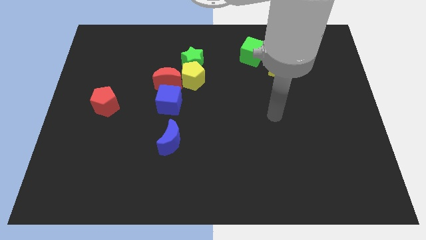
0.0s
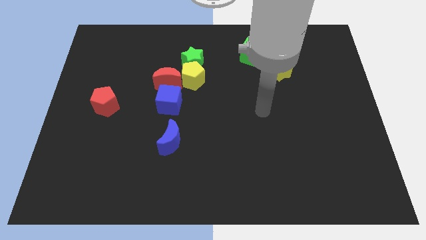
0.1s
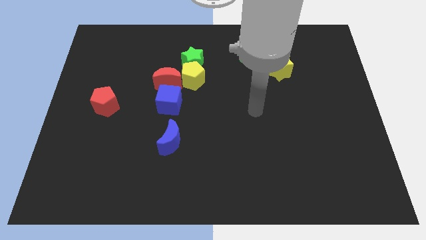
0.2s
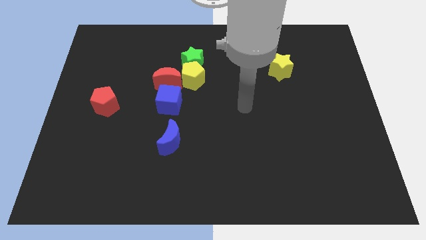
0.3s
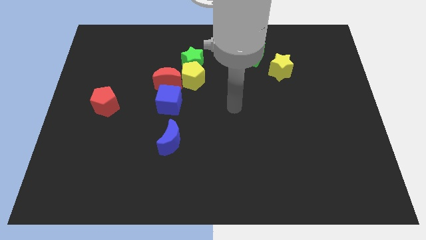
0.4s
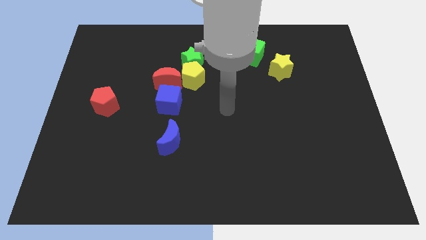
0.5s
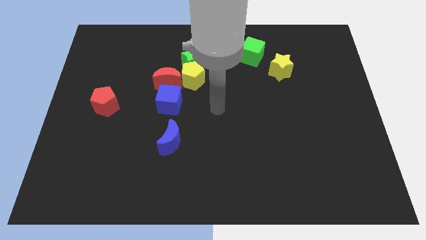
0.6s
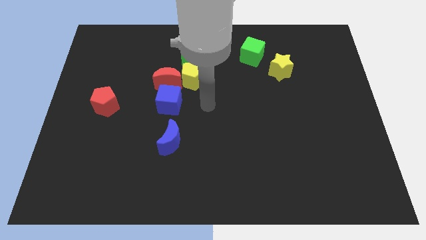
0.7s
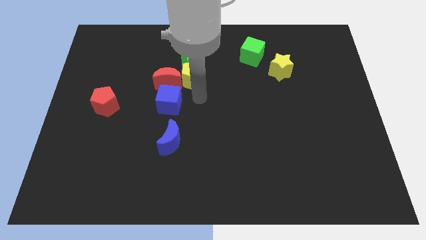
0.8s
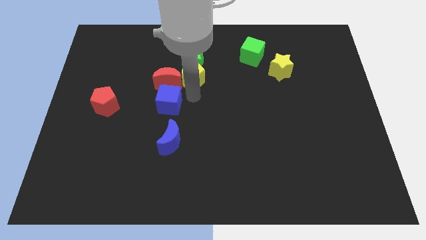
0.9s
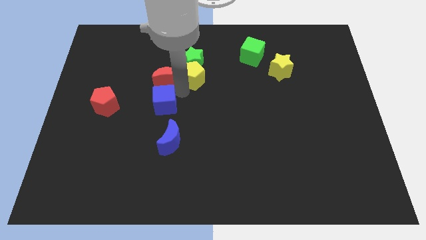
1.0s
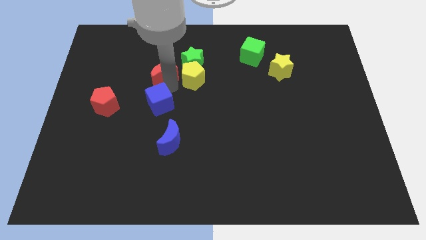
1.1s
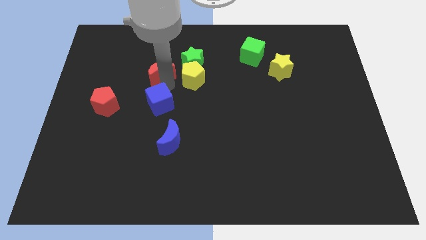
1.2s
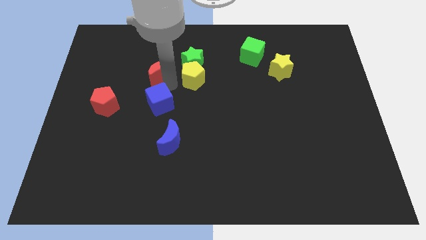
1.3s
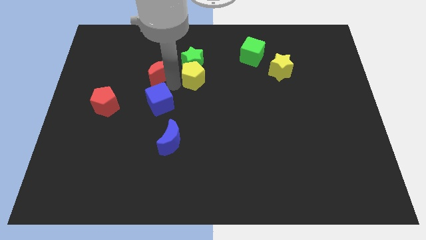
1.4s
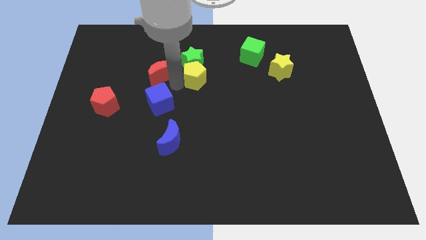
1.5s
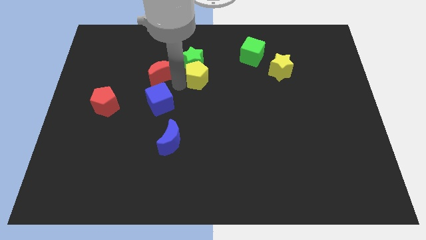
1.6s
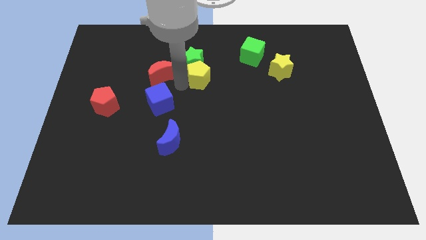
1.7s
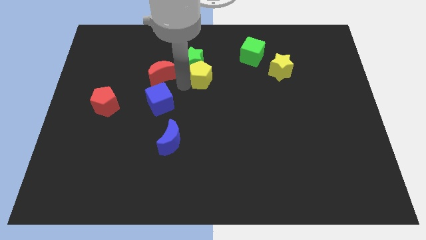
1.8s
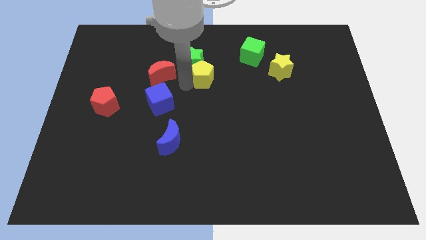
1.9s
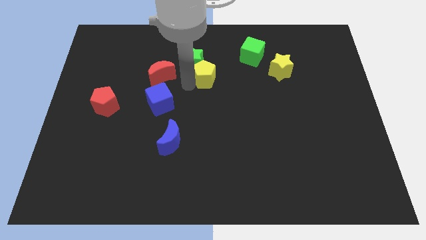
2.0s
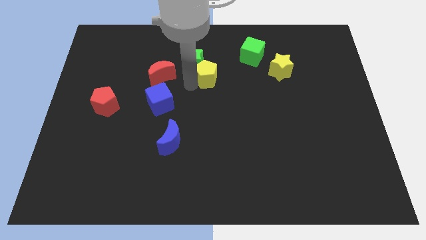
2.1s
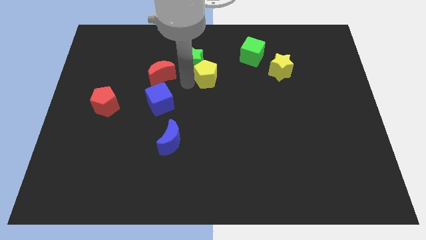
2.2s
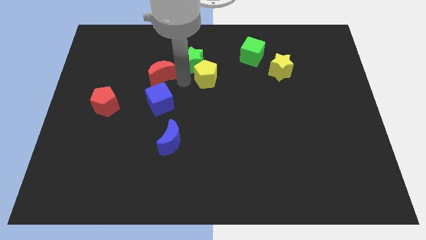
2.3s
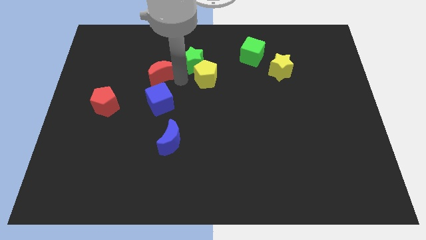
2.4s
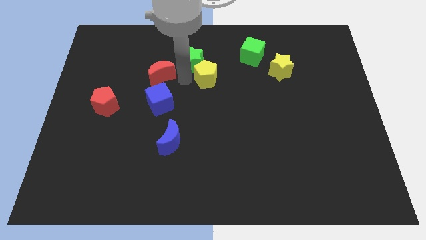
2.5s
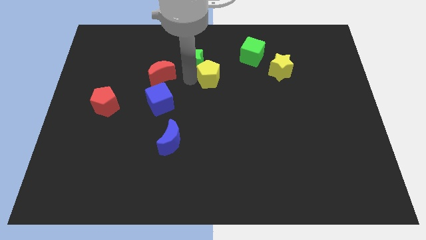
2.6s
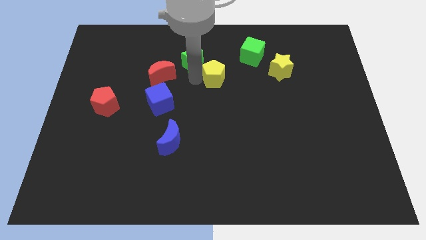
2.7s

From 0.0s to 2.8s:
move the yellow pentagon away from the clump

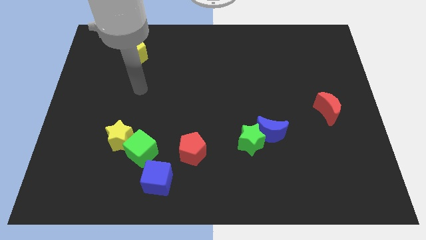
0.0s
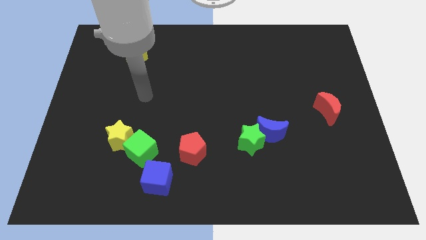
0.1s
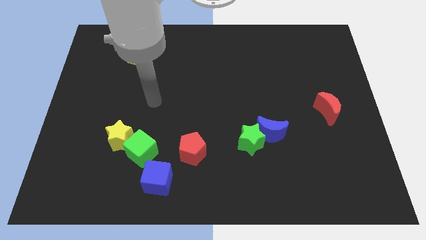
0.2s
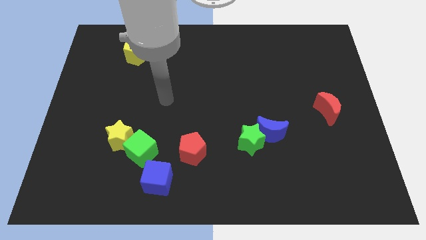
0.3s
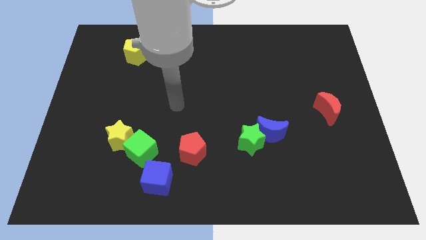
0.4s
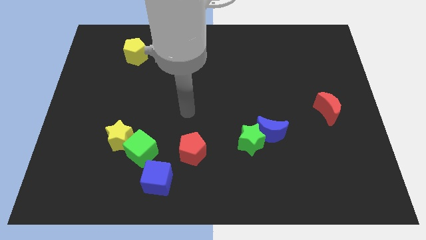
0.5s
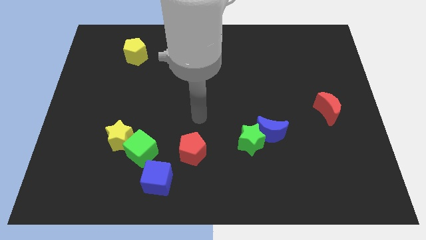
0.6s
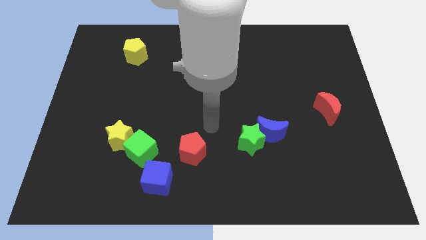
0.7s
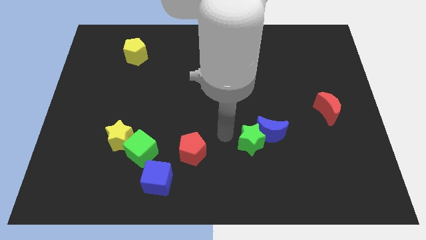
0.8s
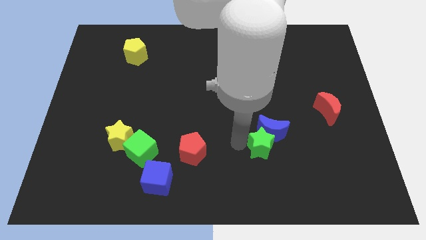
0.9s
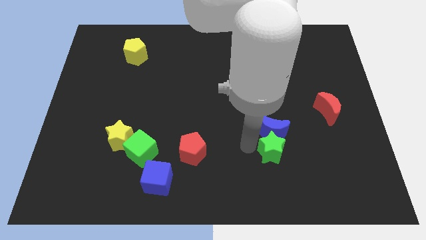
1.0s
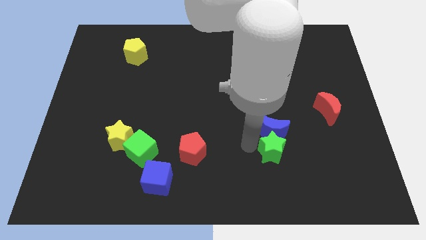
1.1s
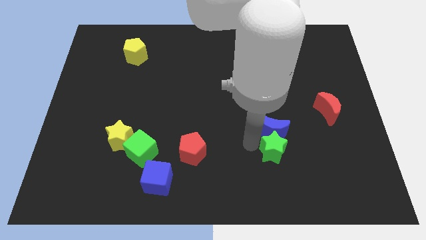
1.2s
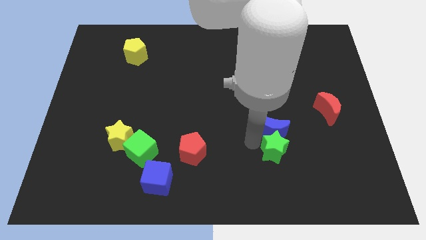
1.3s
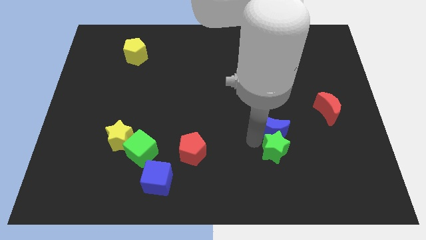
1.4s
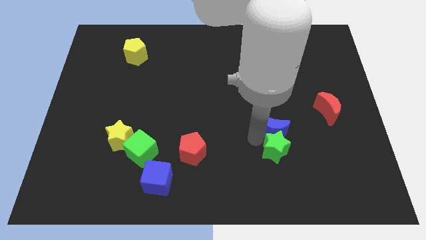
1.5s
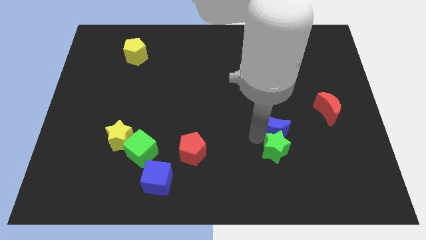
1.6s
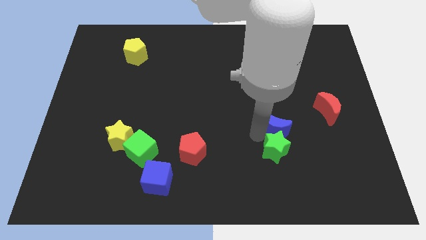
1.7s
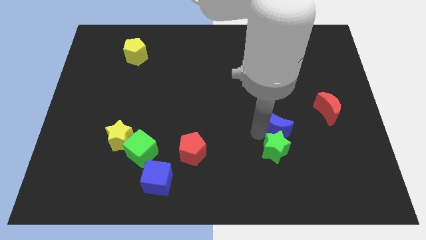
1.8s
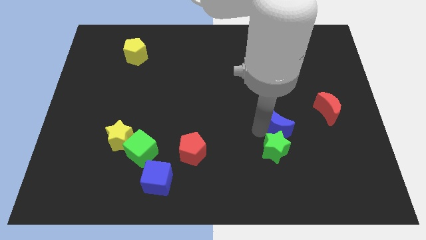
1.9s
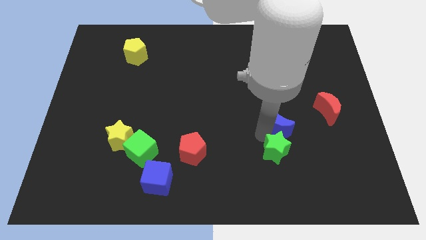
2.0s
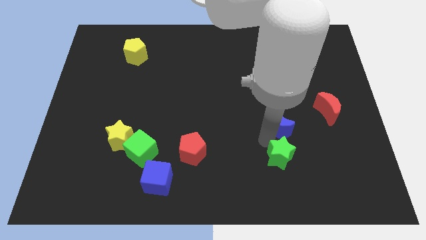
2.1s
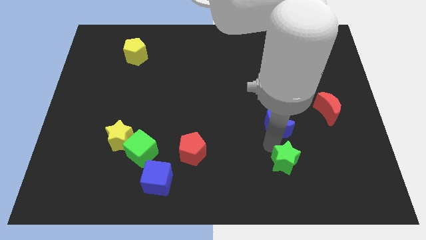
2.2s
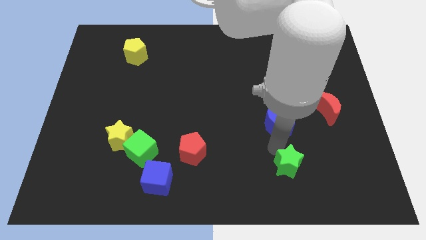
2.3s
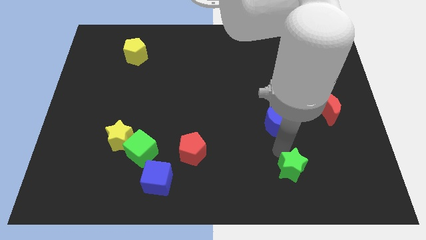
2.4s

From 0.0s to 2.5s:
separate the blue moon from the green star

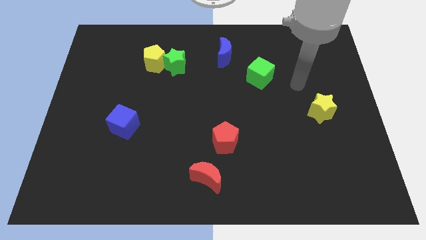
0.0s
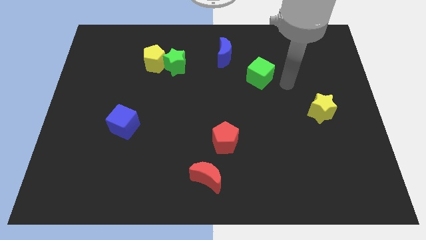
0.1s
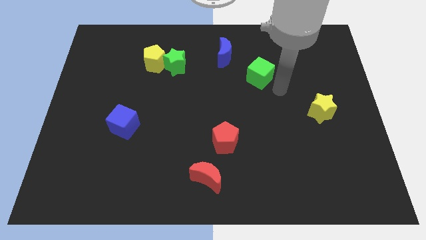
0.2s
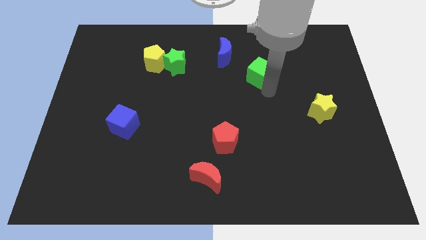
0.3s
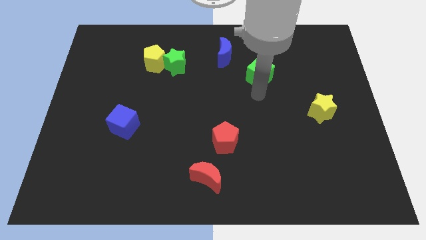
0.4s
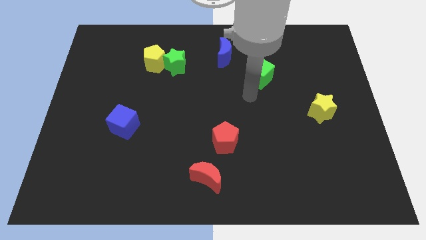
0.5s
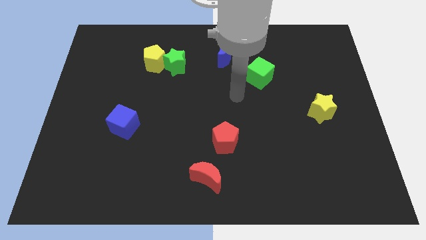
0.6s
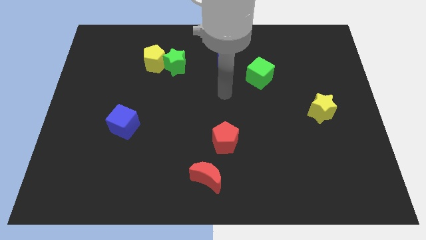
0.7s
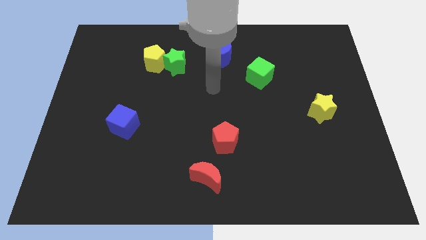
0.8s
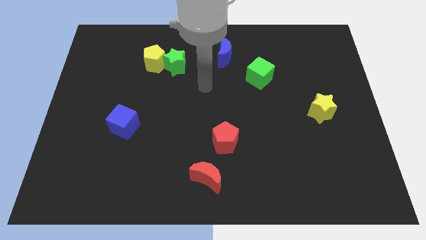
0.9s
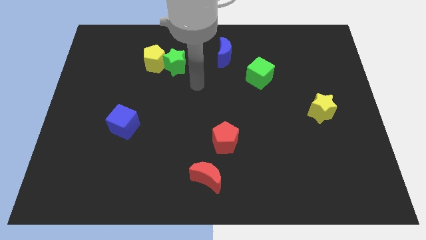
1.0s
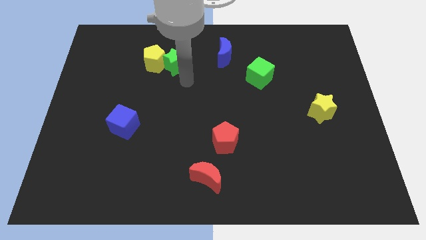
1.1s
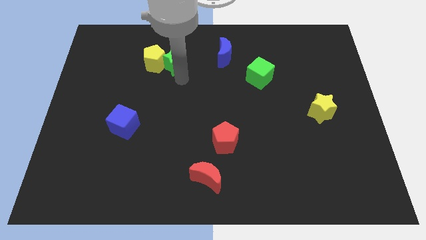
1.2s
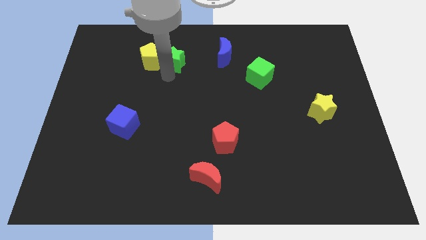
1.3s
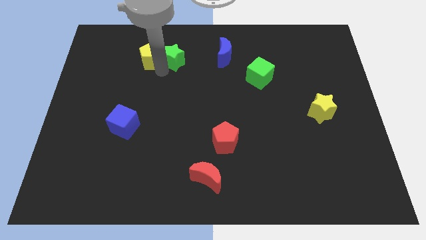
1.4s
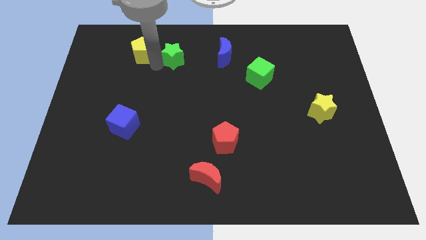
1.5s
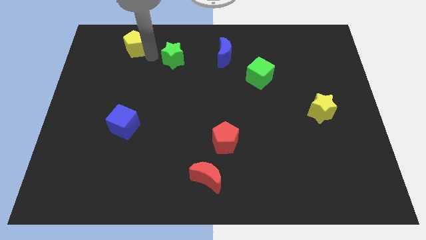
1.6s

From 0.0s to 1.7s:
pull the green star apart from the yellow pentagon

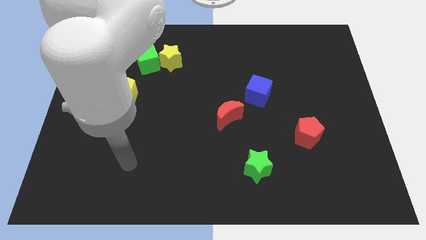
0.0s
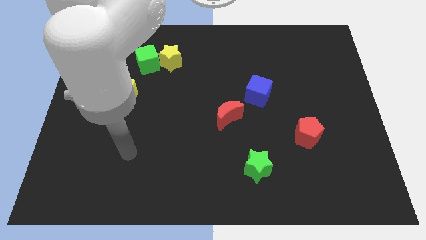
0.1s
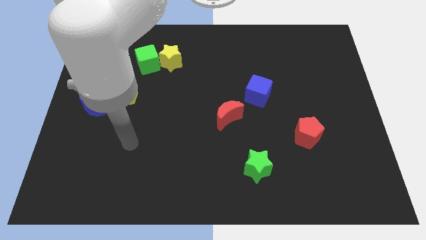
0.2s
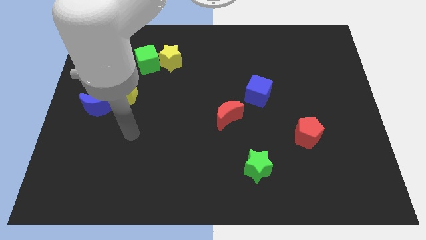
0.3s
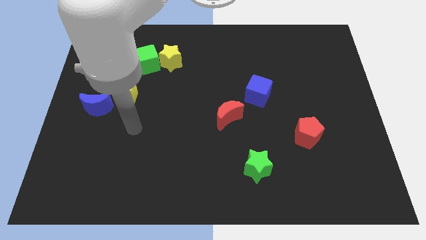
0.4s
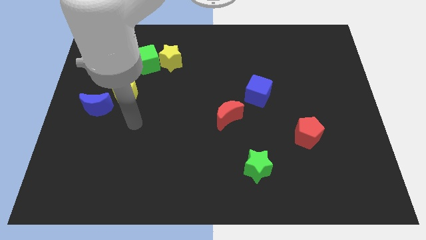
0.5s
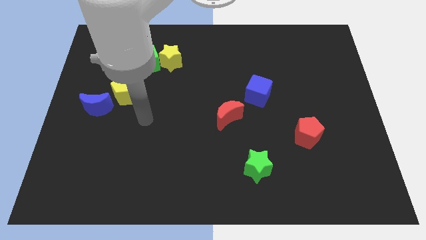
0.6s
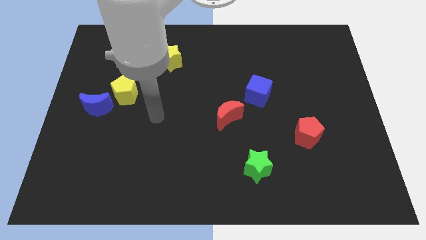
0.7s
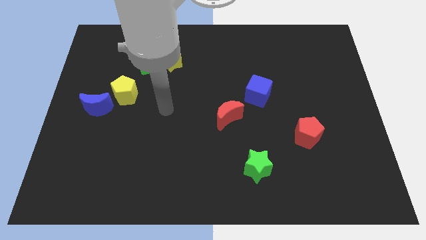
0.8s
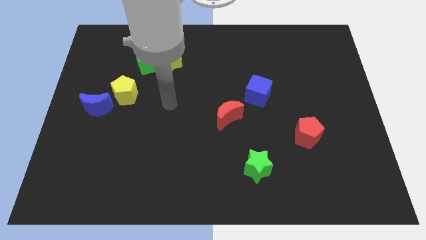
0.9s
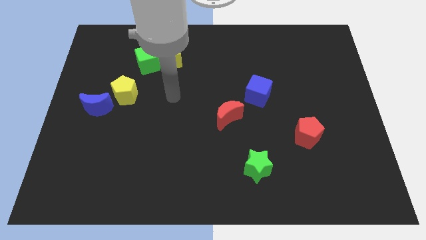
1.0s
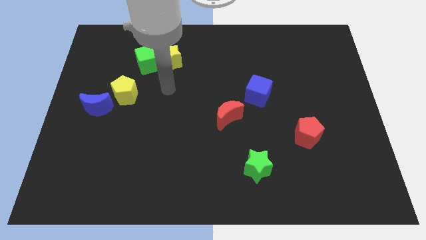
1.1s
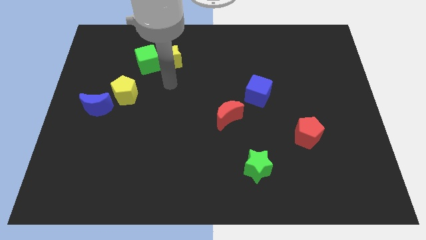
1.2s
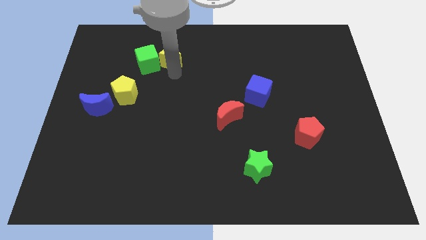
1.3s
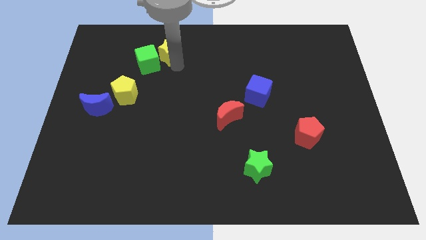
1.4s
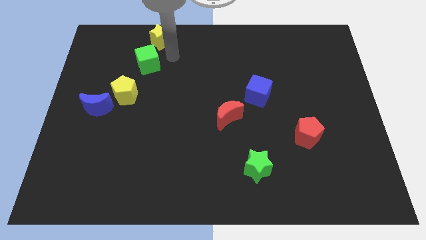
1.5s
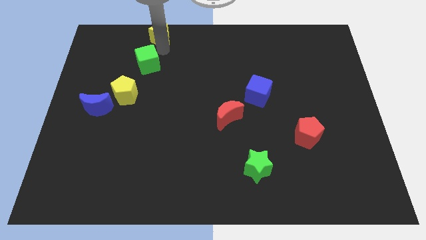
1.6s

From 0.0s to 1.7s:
move the green cube away from the yellow star

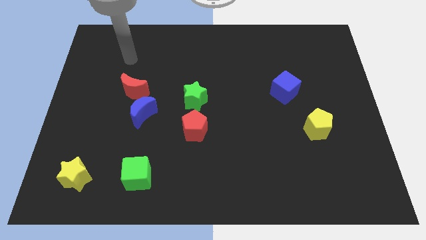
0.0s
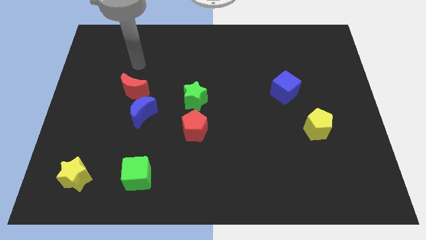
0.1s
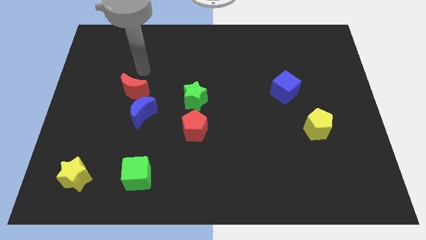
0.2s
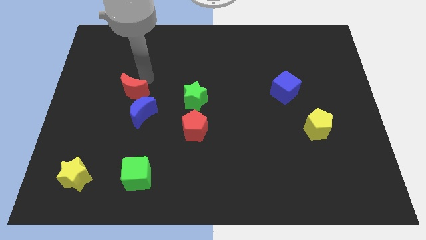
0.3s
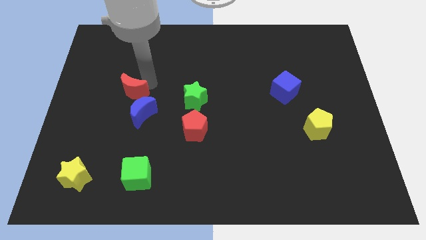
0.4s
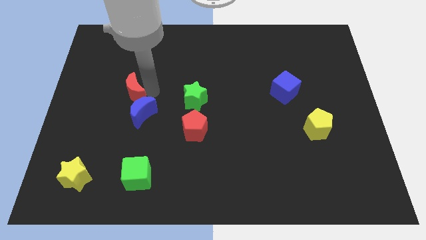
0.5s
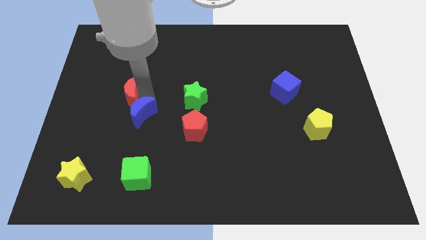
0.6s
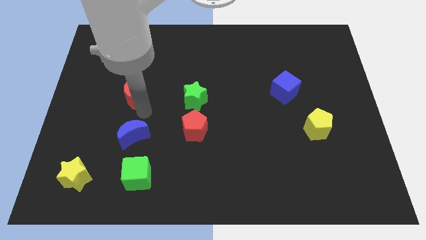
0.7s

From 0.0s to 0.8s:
move the red moon away from the blue moon

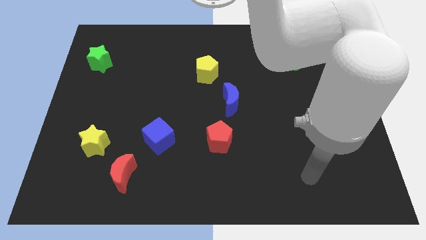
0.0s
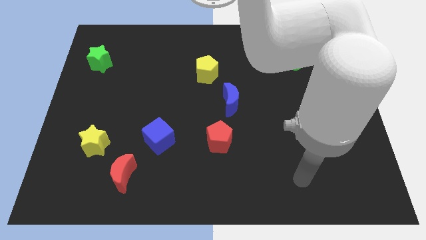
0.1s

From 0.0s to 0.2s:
move the red moon away from the yellow star
